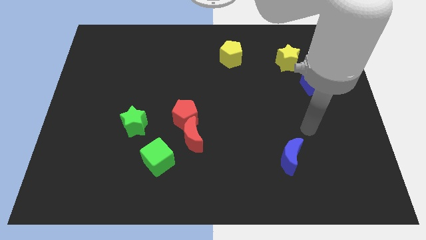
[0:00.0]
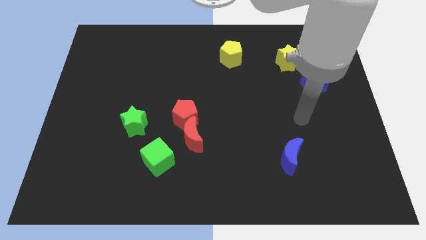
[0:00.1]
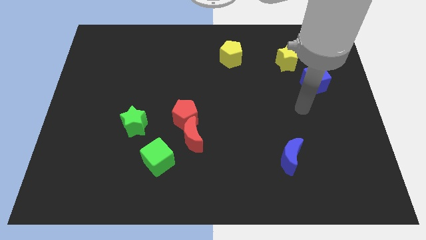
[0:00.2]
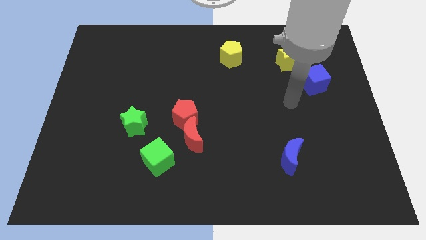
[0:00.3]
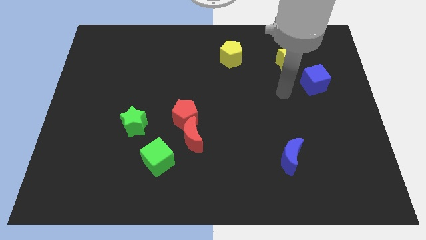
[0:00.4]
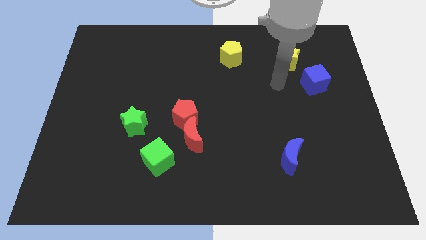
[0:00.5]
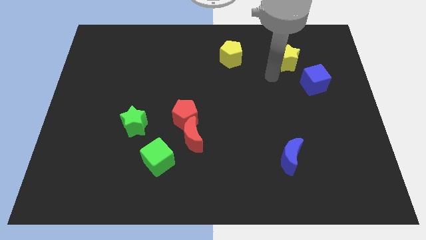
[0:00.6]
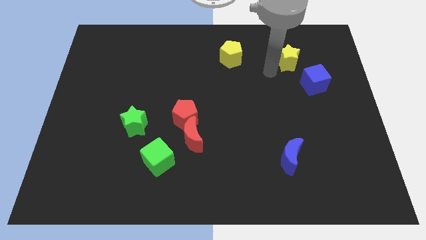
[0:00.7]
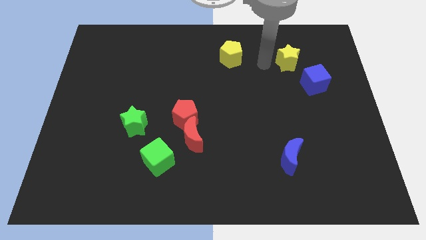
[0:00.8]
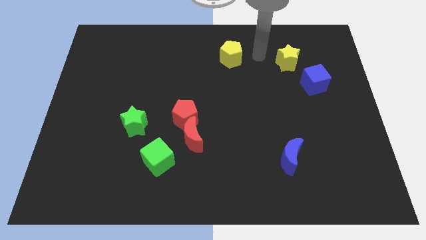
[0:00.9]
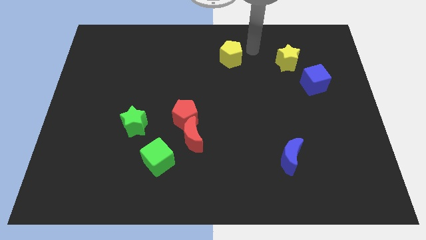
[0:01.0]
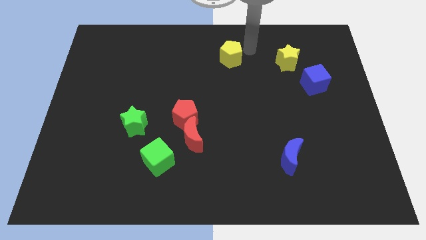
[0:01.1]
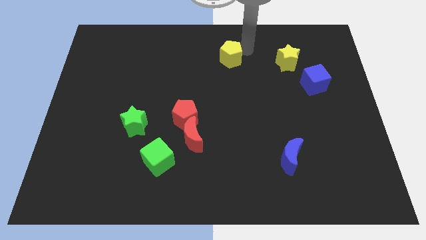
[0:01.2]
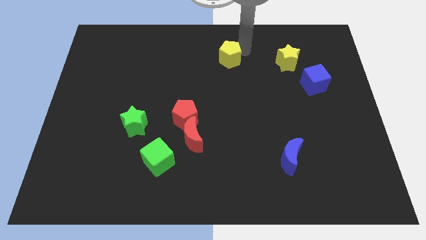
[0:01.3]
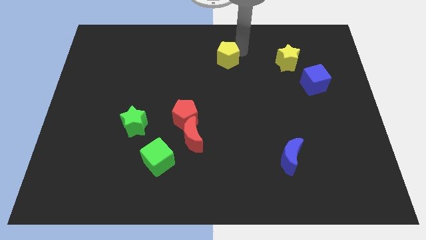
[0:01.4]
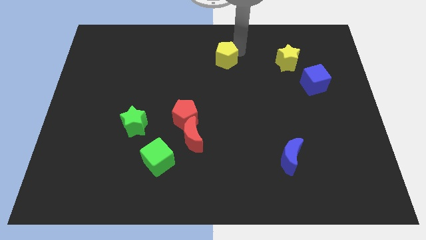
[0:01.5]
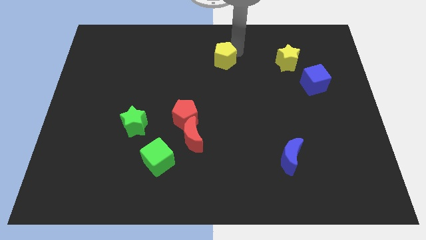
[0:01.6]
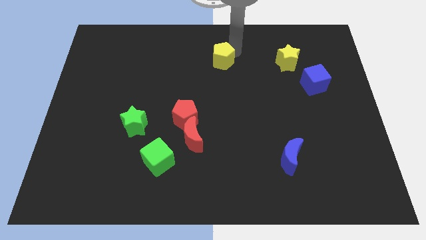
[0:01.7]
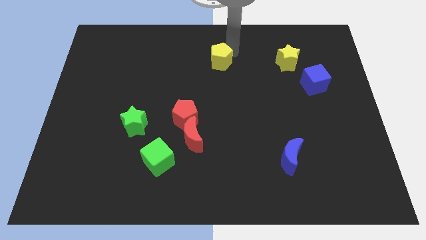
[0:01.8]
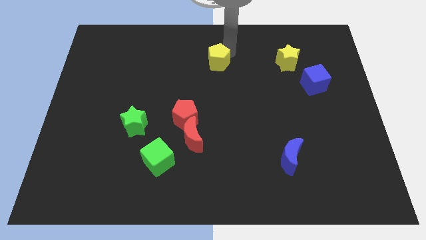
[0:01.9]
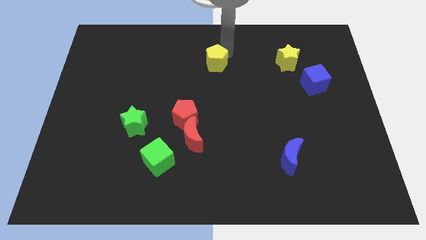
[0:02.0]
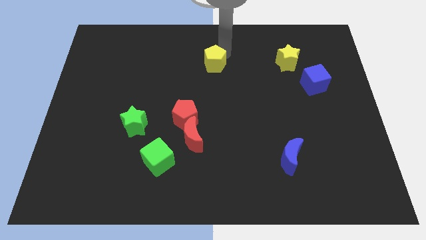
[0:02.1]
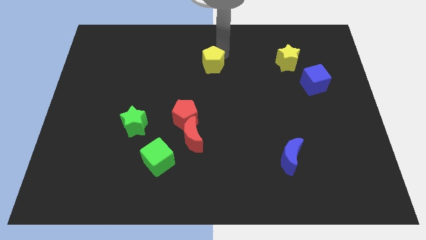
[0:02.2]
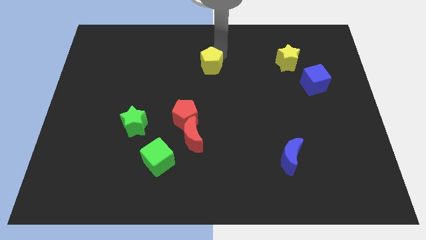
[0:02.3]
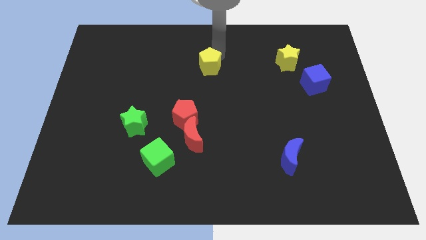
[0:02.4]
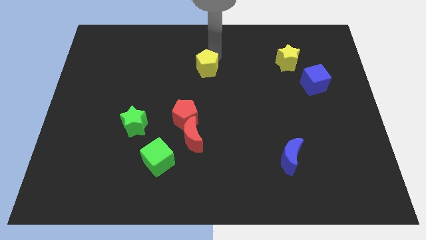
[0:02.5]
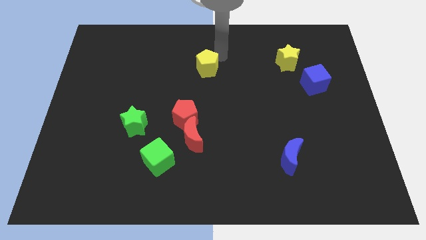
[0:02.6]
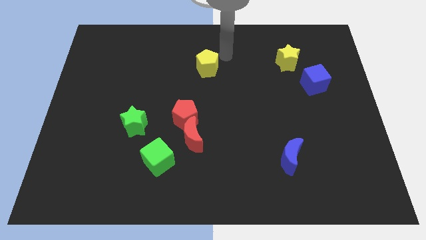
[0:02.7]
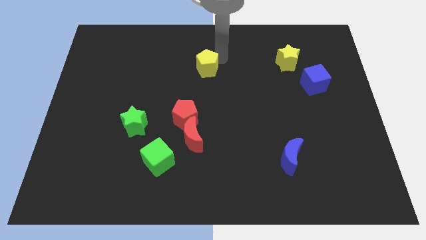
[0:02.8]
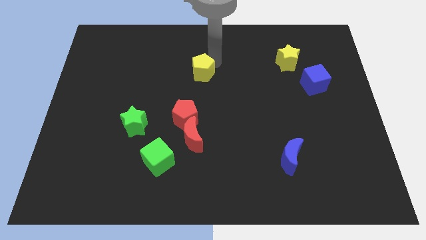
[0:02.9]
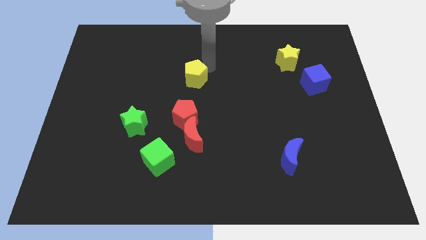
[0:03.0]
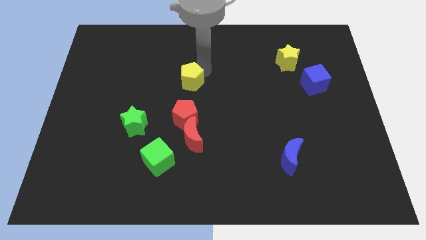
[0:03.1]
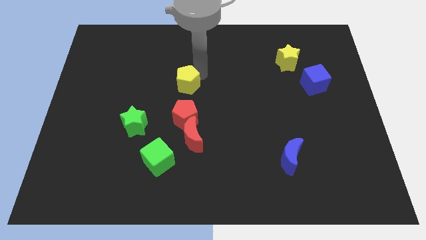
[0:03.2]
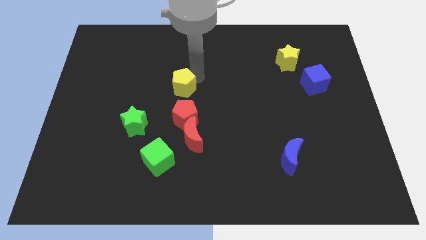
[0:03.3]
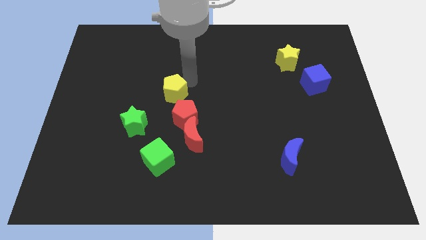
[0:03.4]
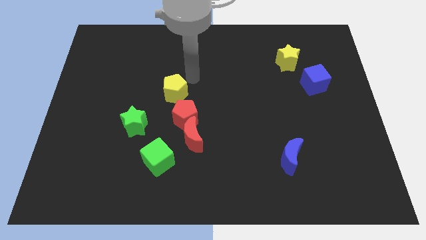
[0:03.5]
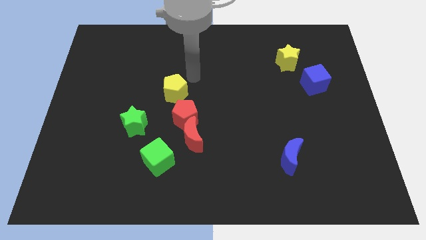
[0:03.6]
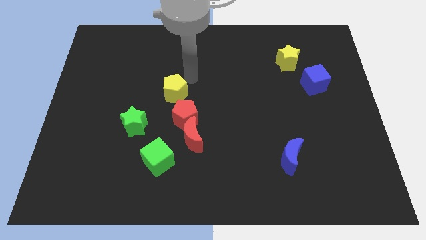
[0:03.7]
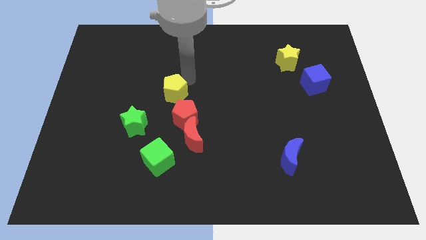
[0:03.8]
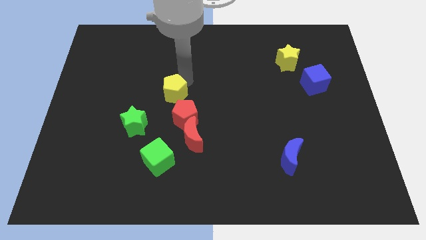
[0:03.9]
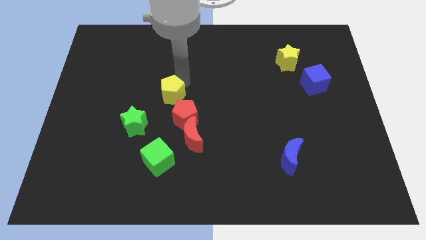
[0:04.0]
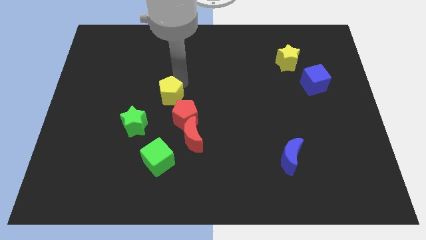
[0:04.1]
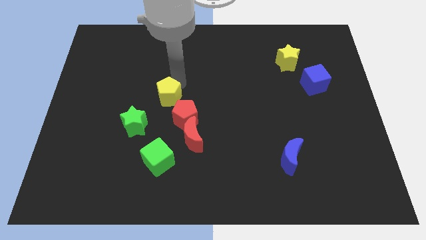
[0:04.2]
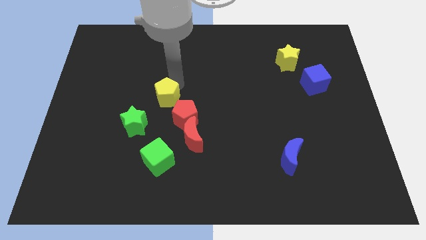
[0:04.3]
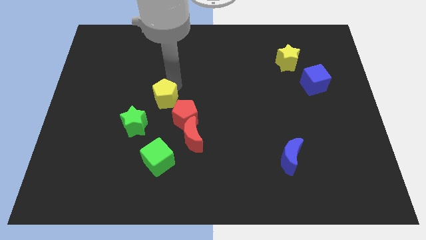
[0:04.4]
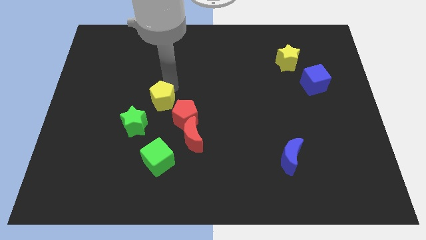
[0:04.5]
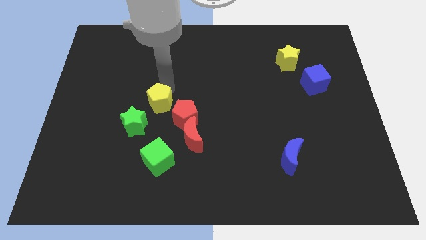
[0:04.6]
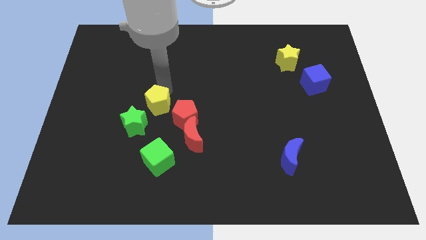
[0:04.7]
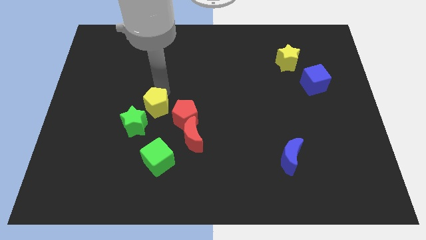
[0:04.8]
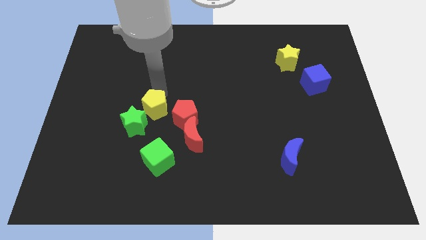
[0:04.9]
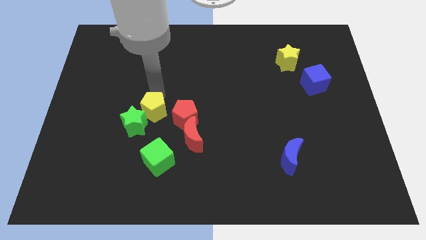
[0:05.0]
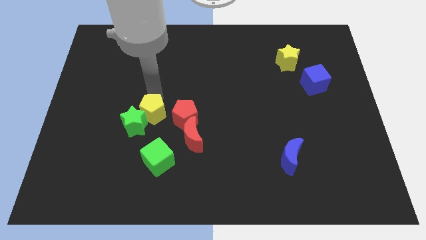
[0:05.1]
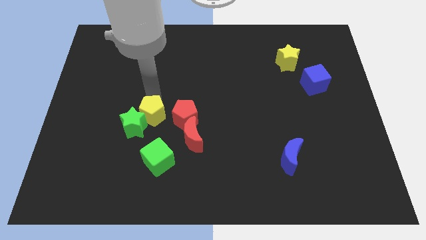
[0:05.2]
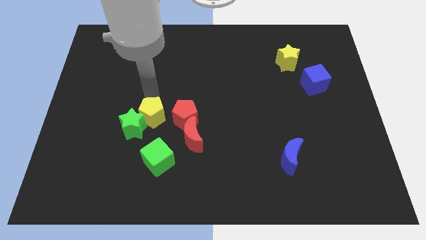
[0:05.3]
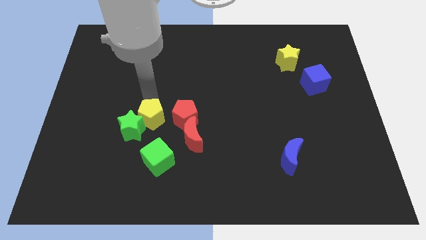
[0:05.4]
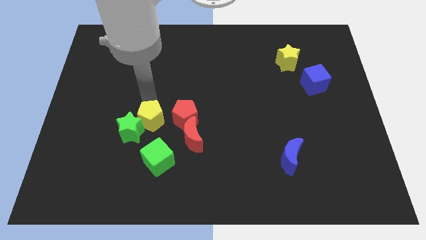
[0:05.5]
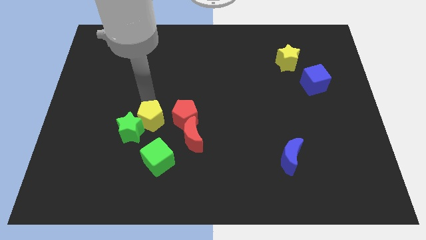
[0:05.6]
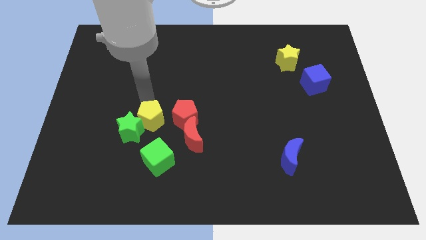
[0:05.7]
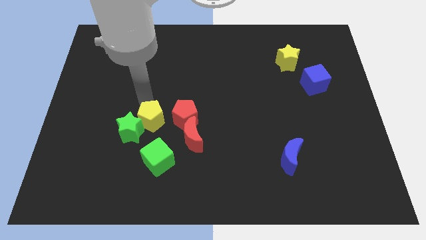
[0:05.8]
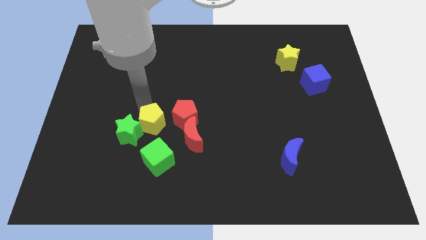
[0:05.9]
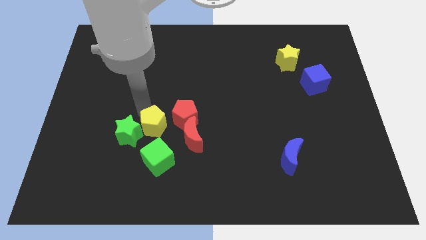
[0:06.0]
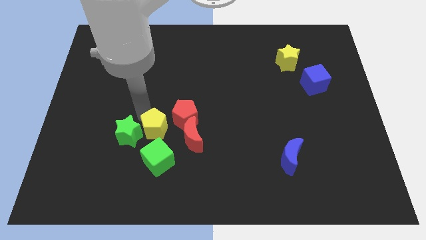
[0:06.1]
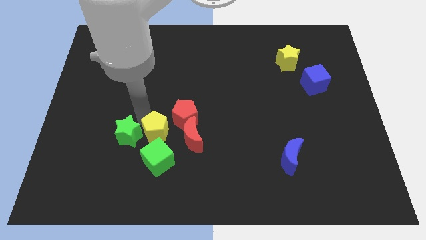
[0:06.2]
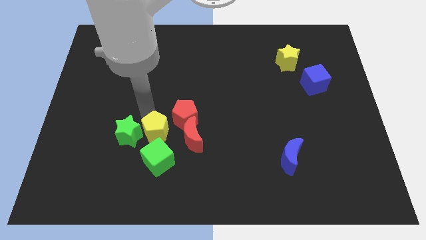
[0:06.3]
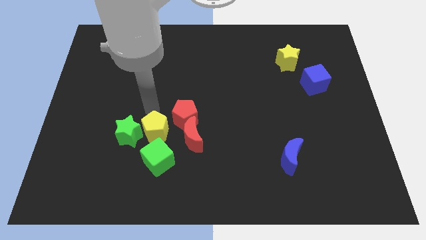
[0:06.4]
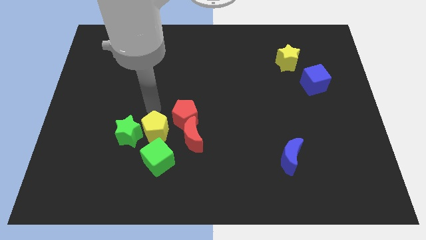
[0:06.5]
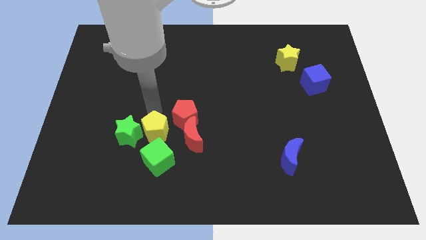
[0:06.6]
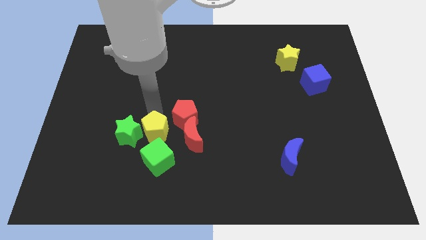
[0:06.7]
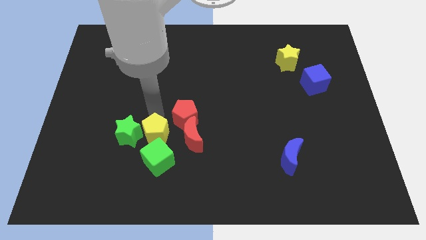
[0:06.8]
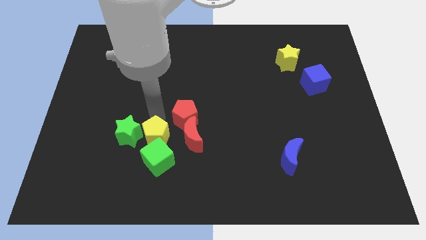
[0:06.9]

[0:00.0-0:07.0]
put the yellow pentagon towards the green cube
